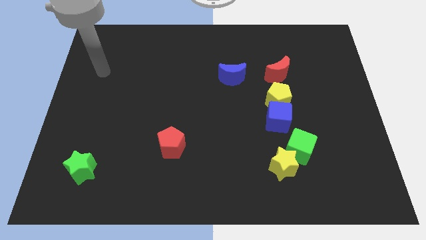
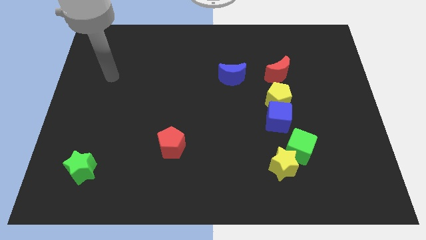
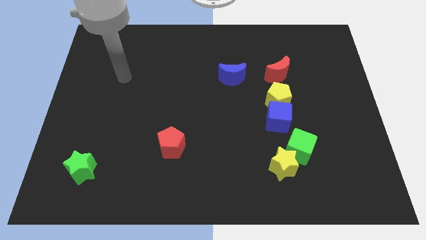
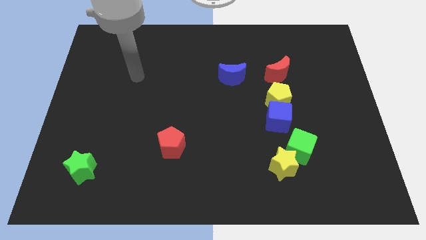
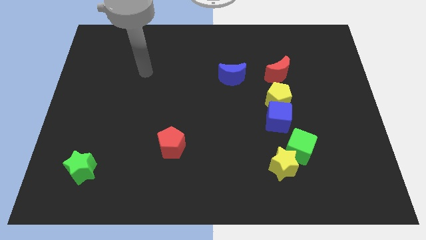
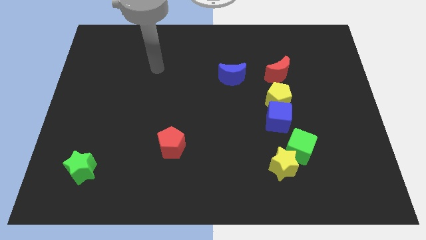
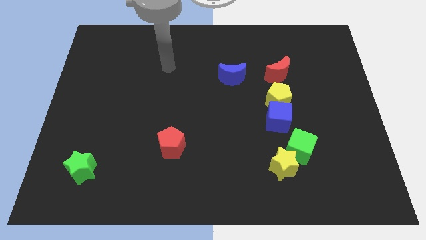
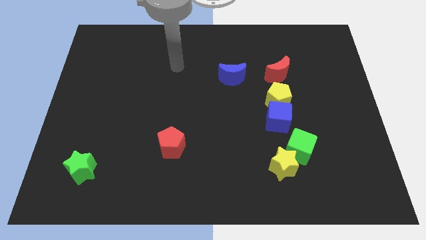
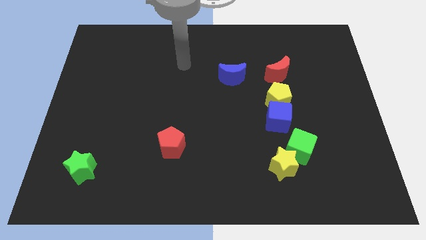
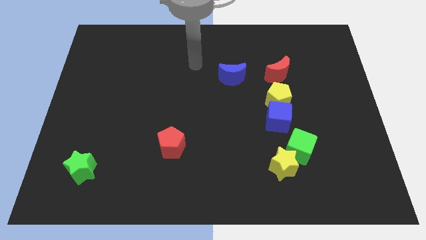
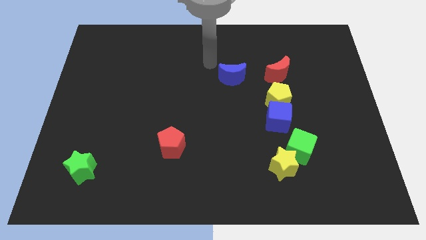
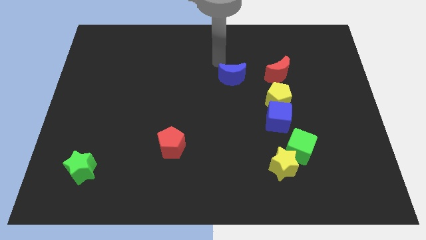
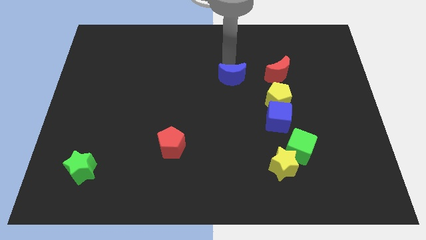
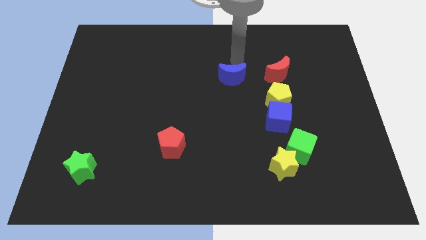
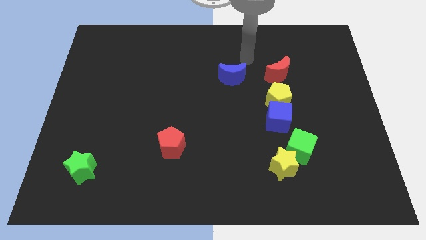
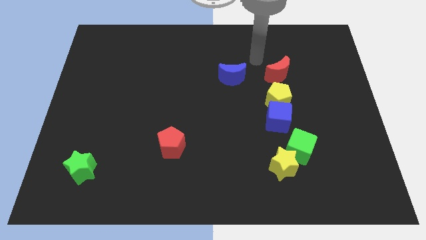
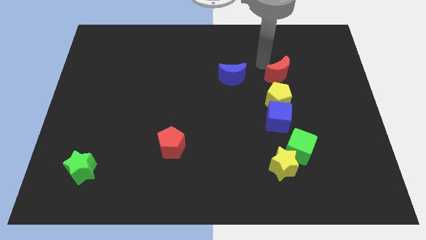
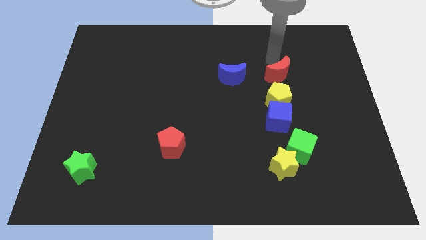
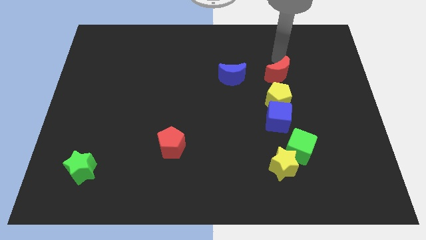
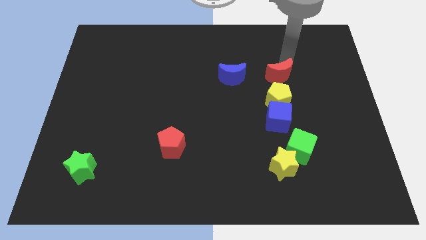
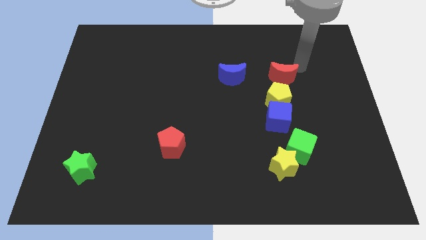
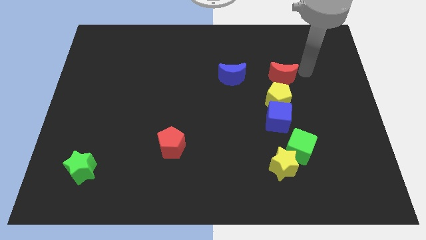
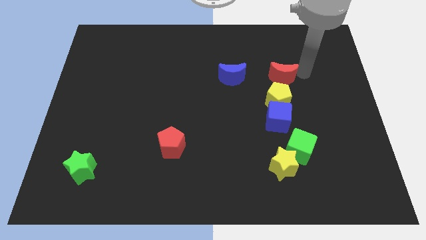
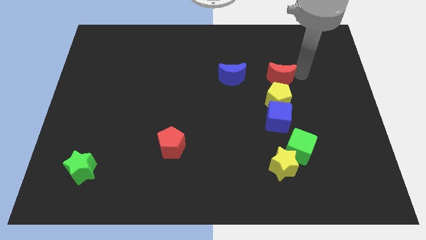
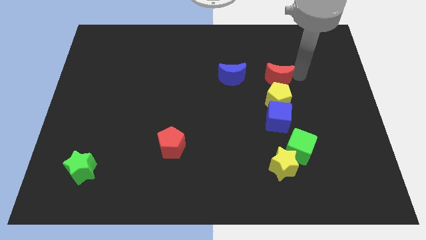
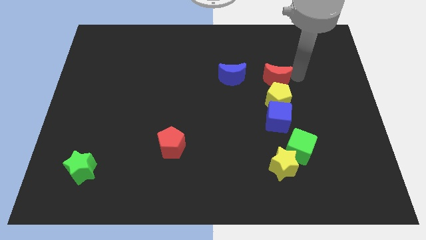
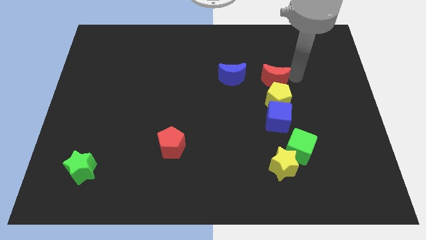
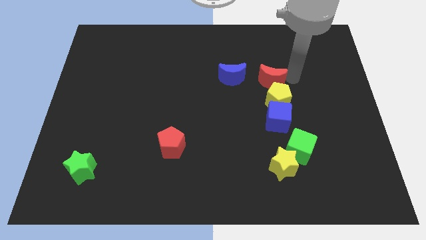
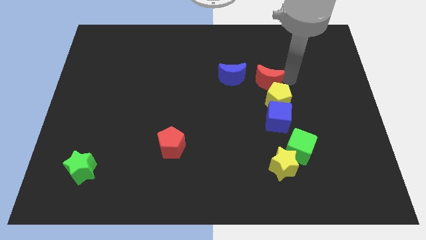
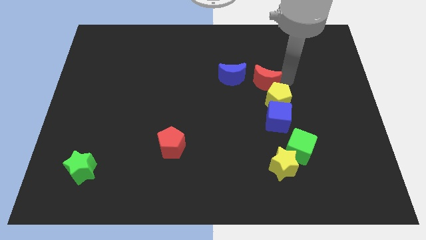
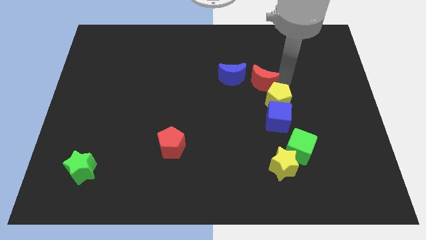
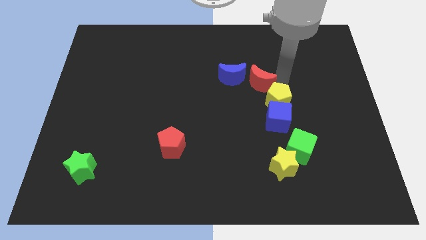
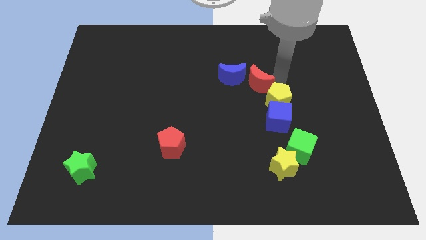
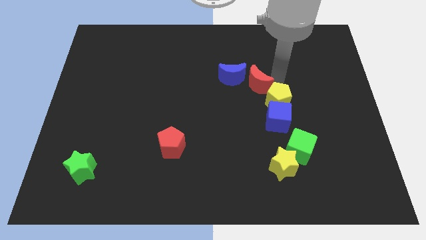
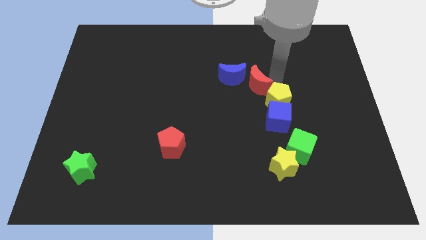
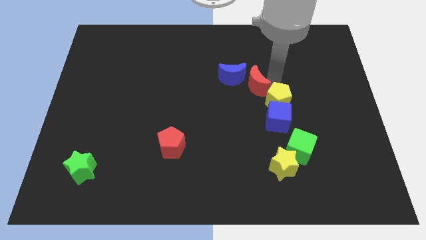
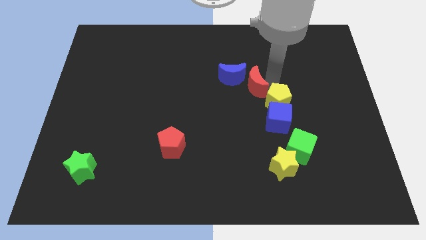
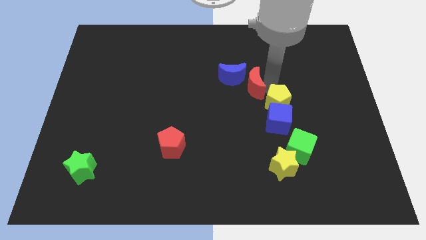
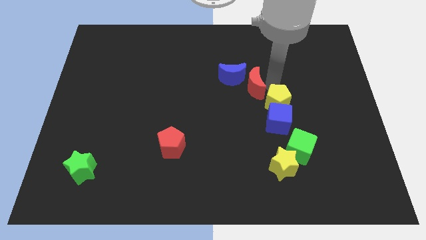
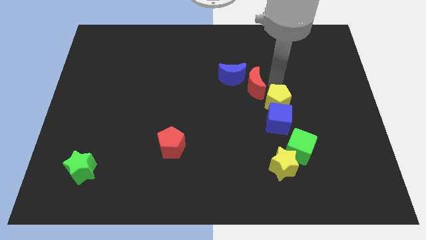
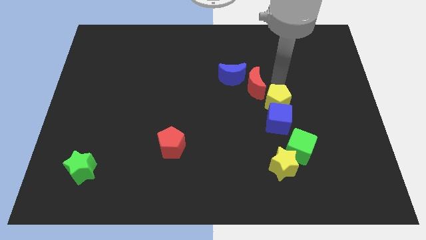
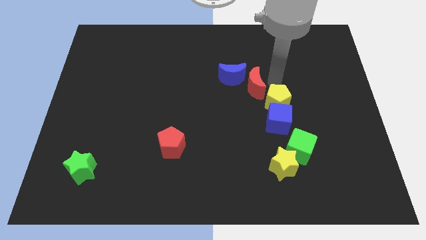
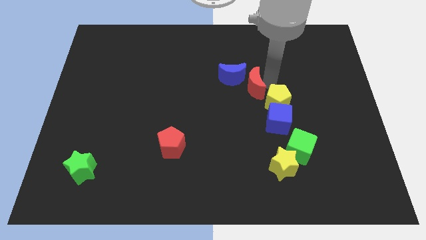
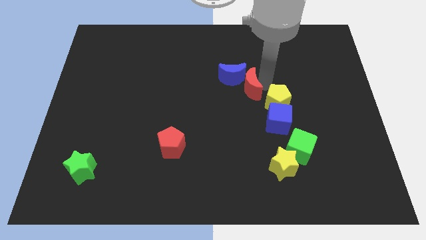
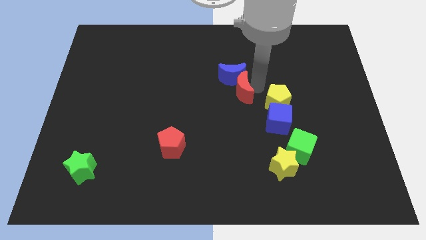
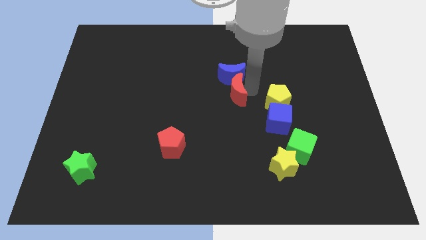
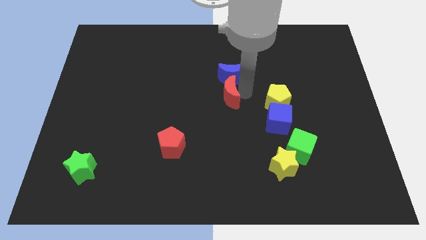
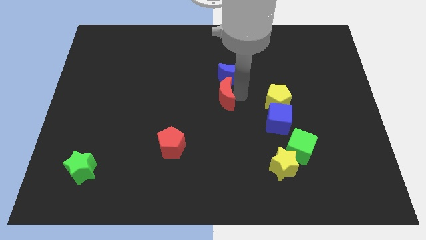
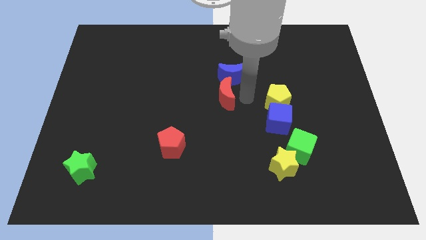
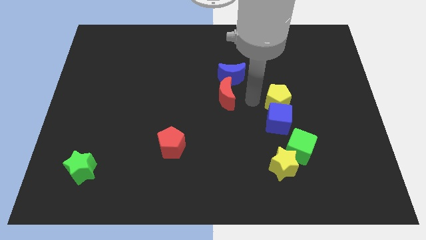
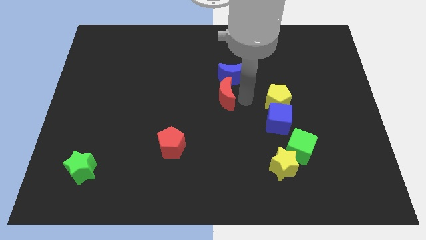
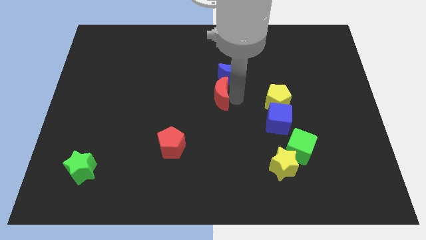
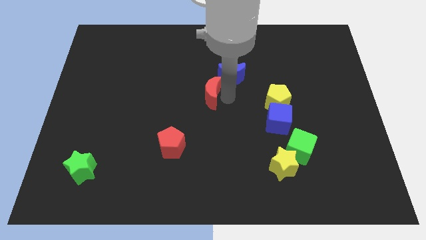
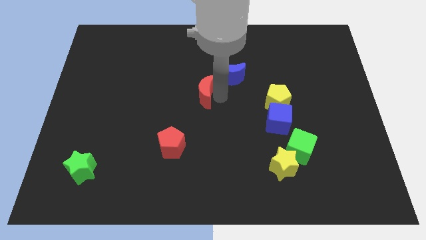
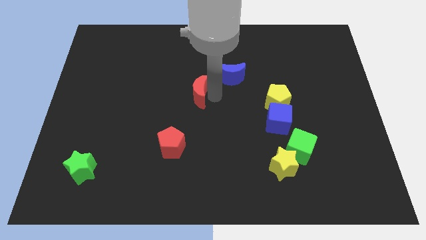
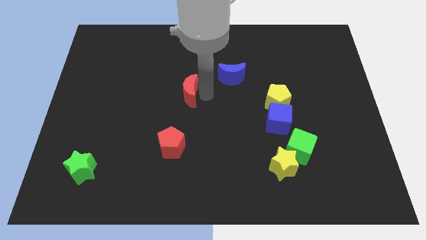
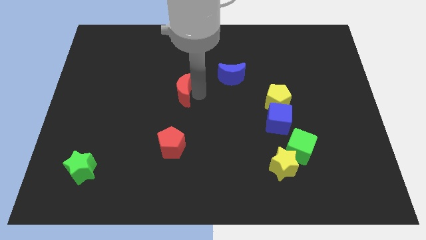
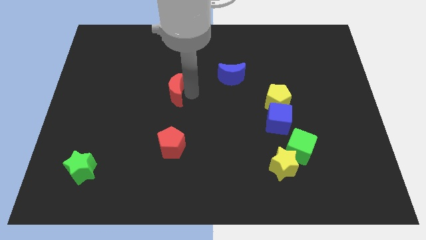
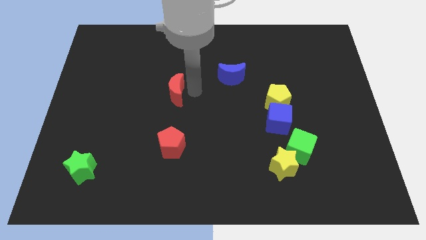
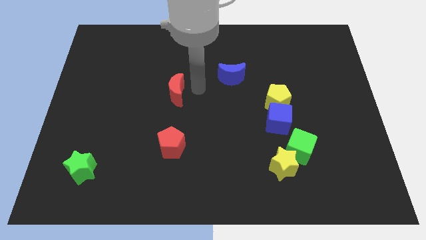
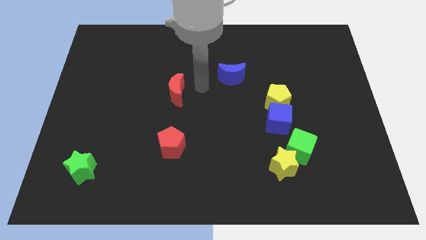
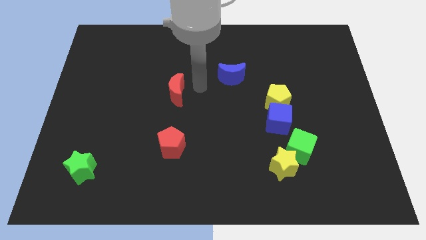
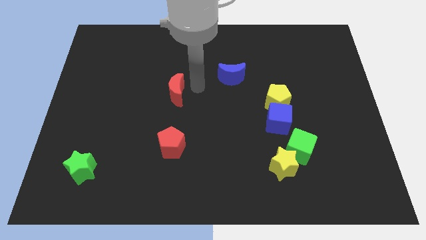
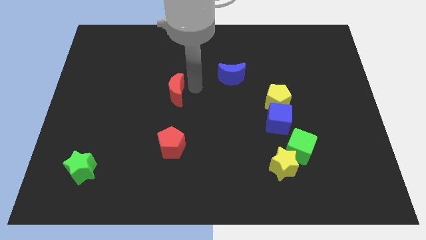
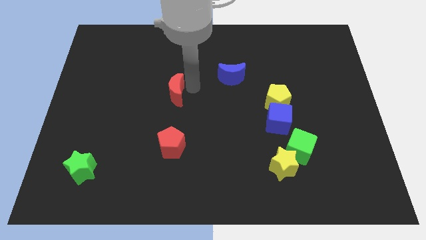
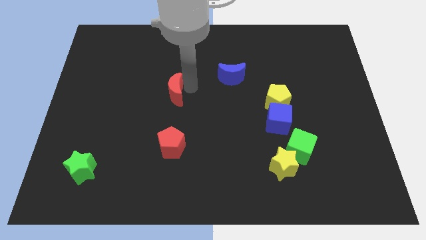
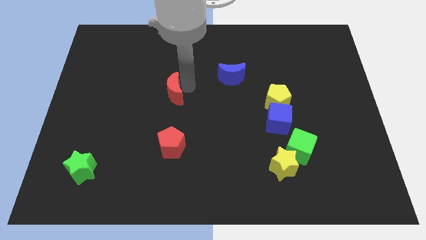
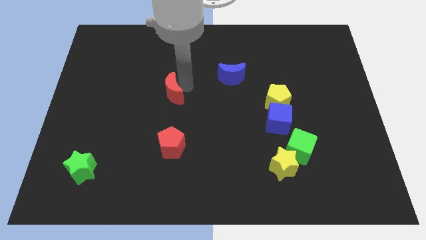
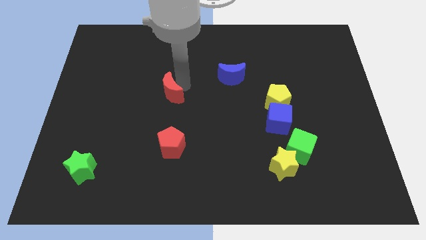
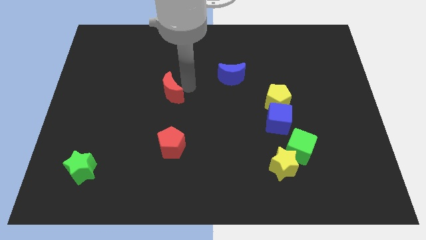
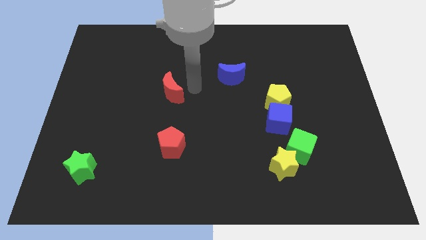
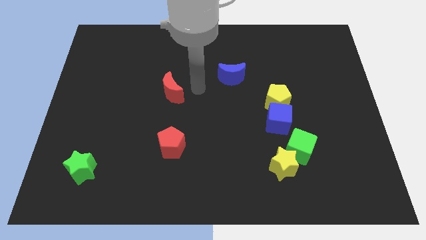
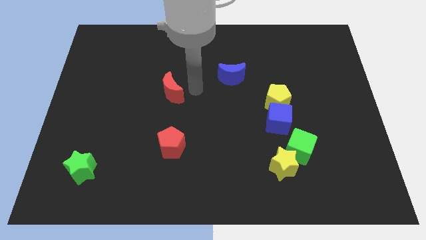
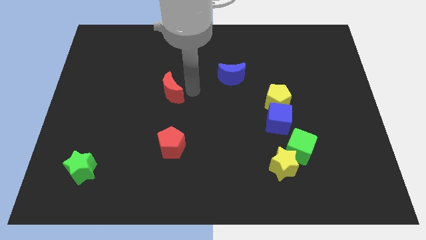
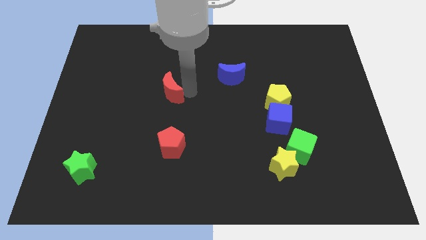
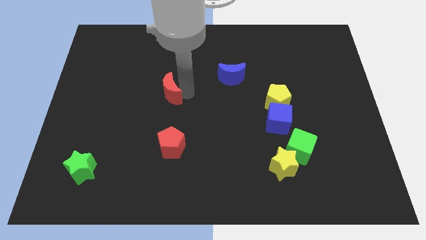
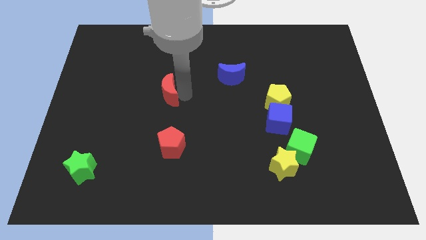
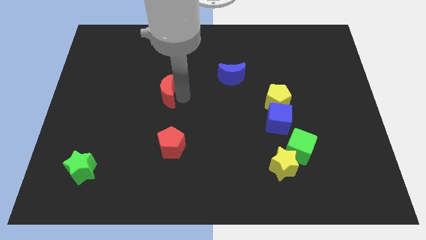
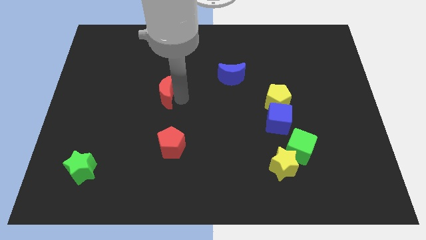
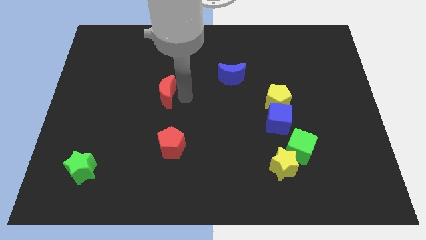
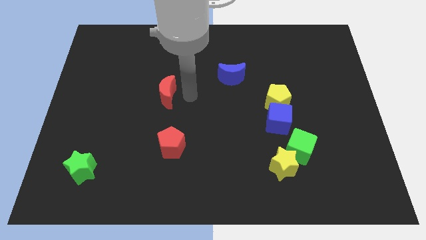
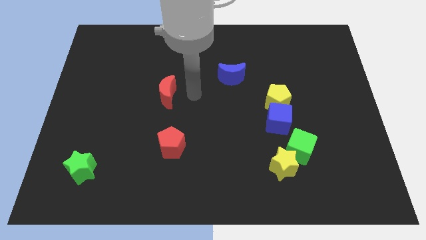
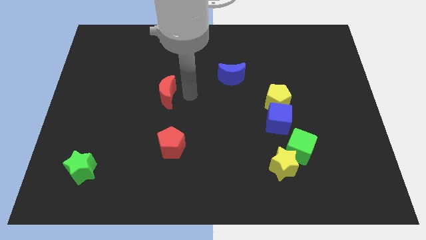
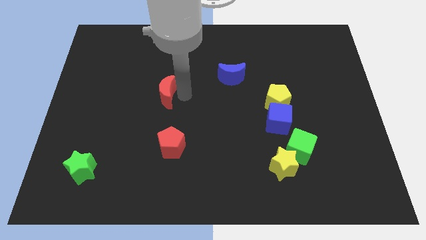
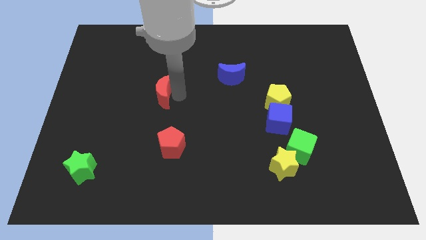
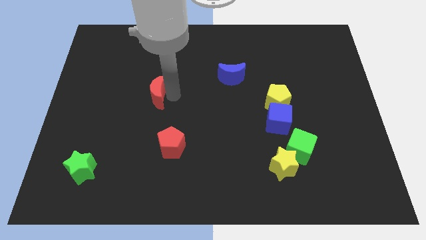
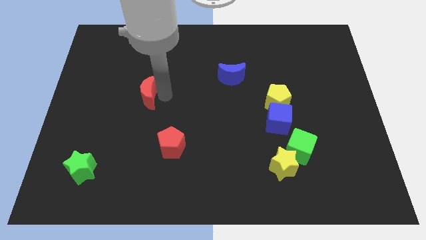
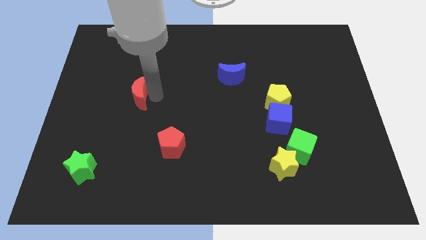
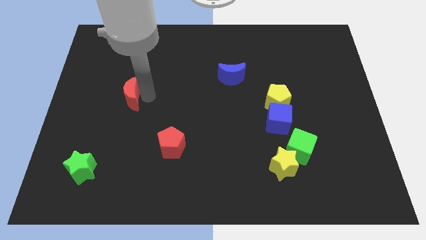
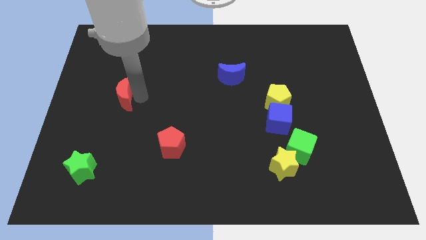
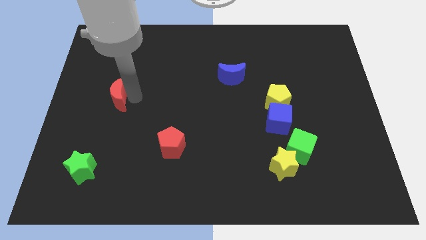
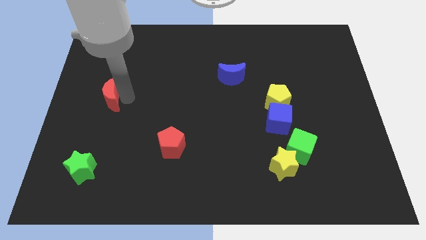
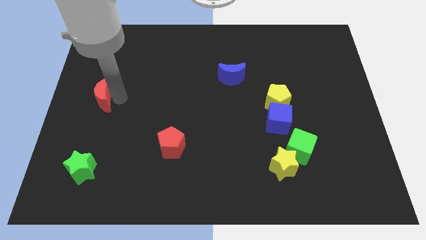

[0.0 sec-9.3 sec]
slide the red moon to the center left
